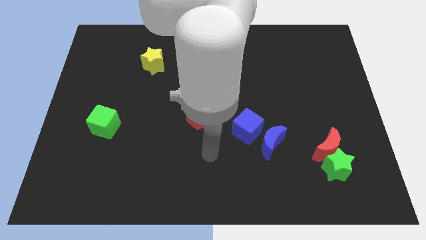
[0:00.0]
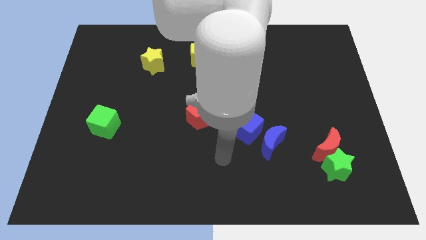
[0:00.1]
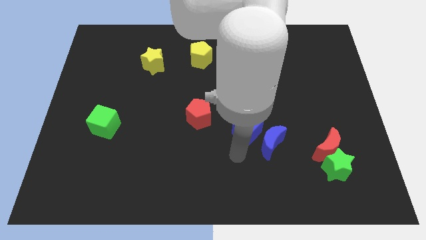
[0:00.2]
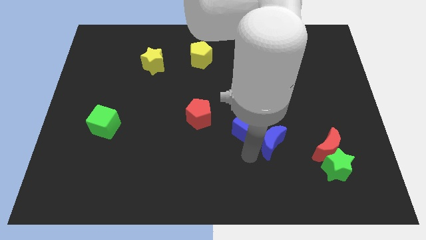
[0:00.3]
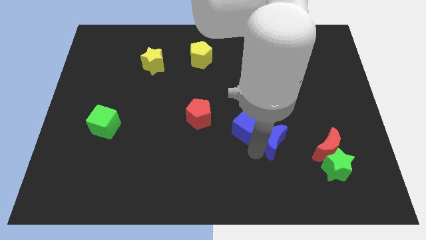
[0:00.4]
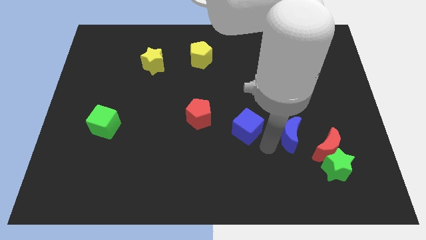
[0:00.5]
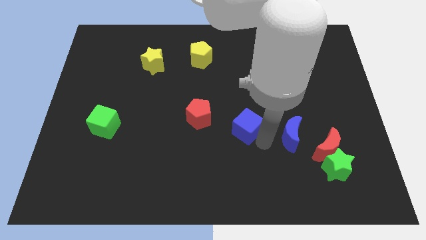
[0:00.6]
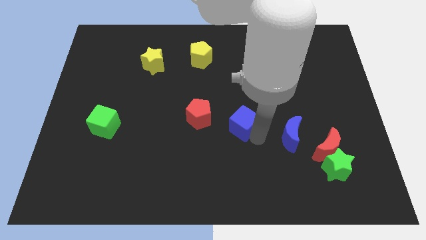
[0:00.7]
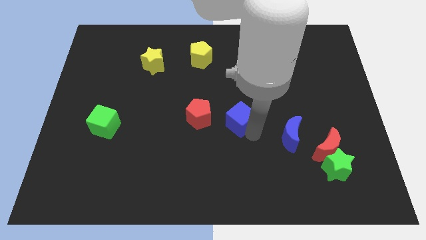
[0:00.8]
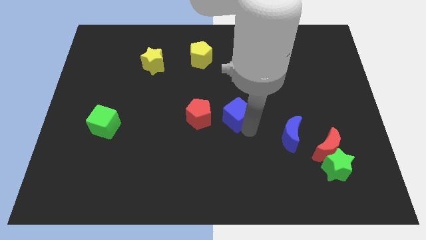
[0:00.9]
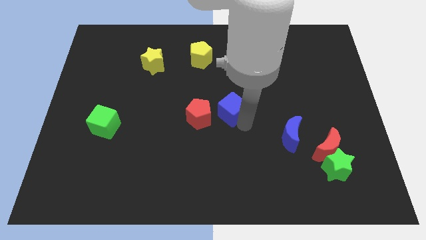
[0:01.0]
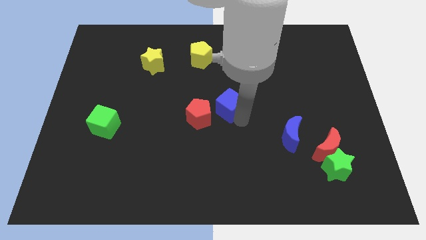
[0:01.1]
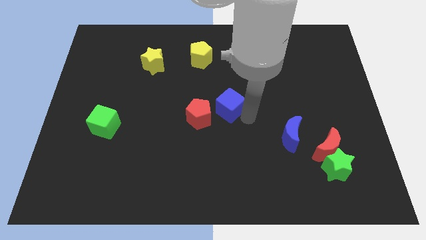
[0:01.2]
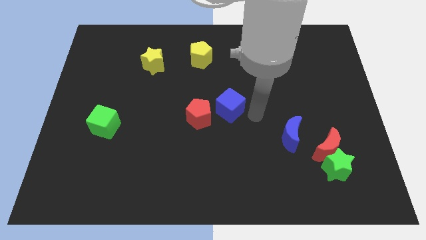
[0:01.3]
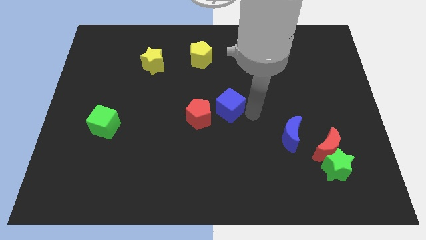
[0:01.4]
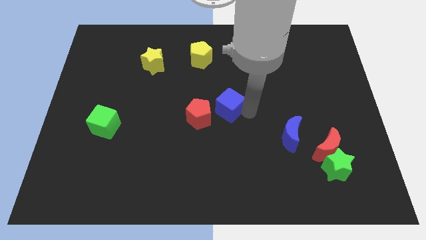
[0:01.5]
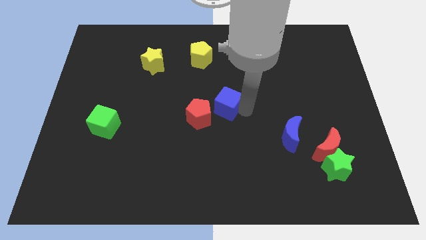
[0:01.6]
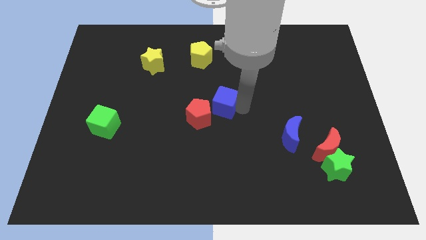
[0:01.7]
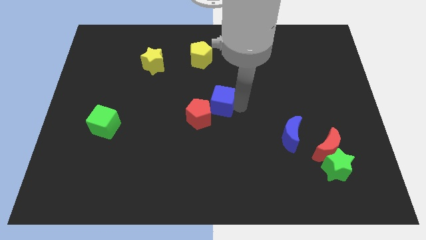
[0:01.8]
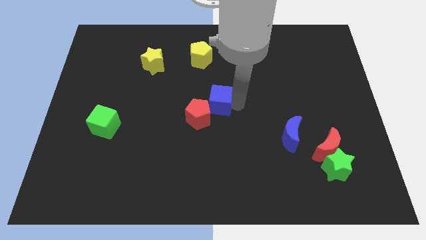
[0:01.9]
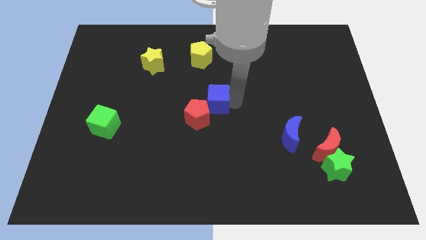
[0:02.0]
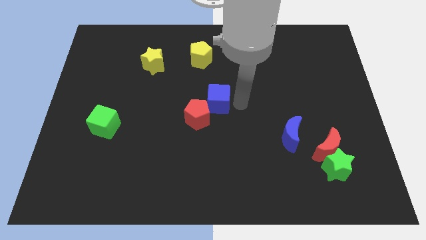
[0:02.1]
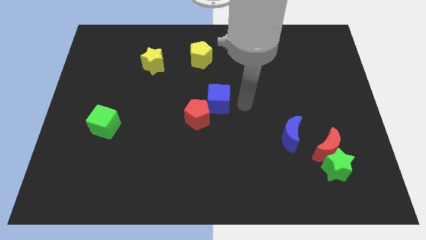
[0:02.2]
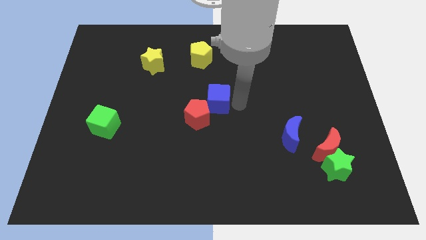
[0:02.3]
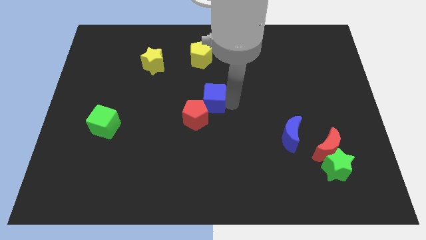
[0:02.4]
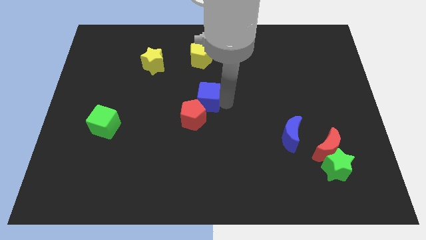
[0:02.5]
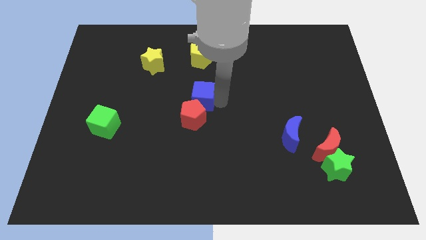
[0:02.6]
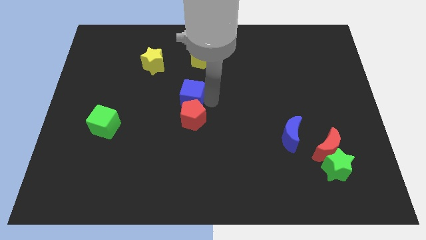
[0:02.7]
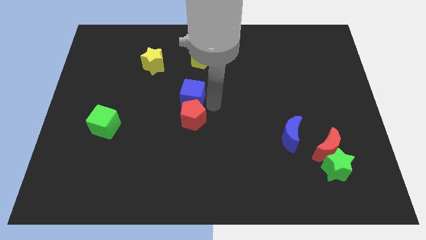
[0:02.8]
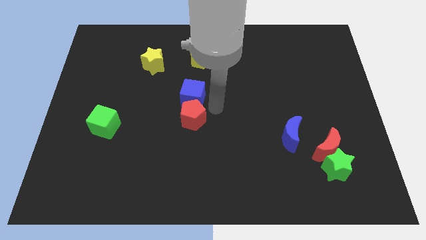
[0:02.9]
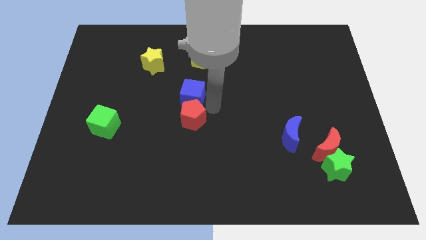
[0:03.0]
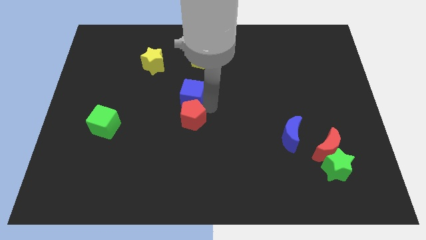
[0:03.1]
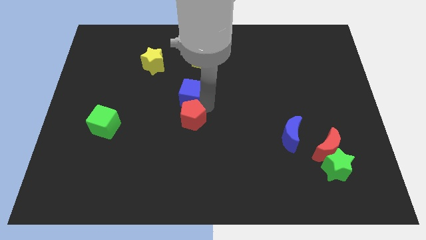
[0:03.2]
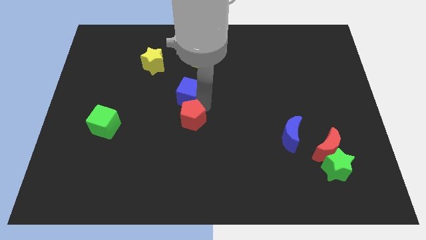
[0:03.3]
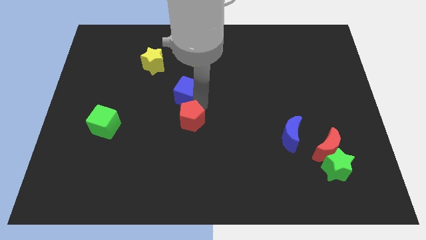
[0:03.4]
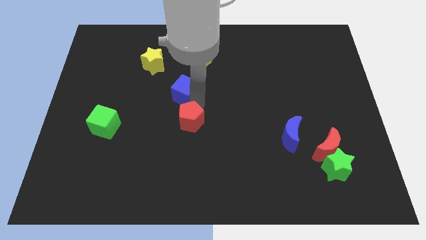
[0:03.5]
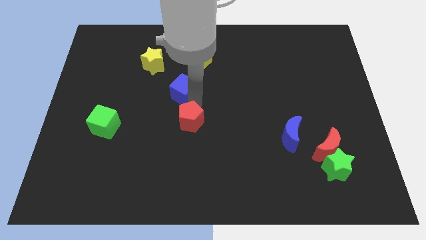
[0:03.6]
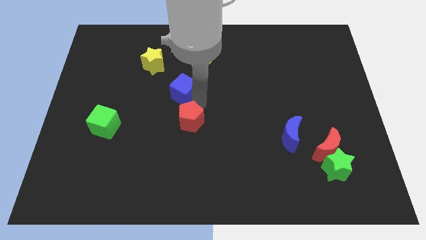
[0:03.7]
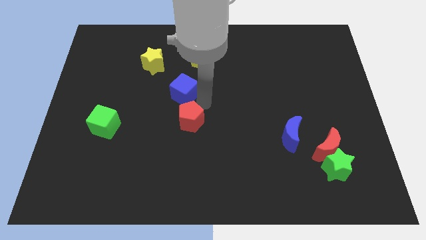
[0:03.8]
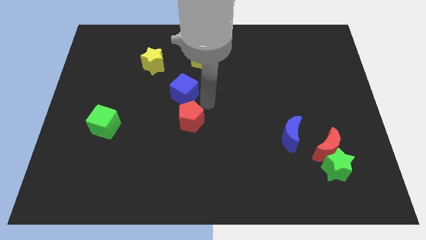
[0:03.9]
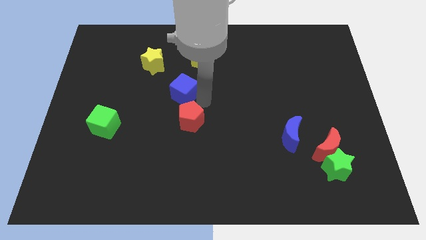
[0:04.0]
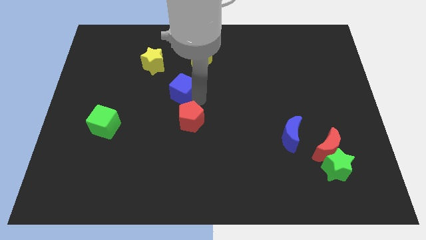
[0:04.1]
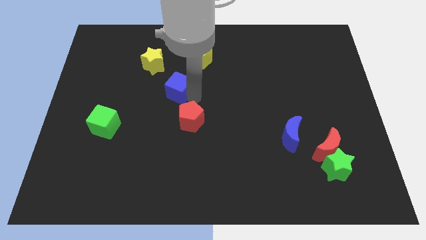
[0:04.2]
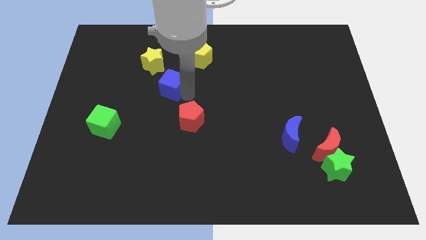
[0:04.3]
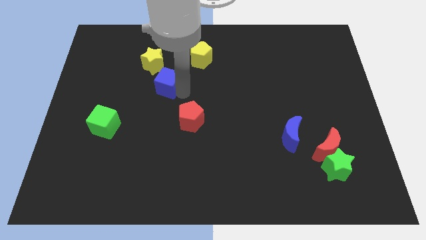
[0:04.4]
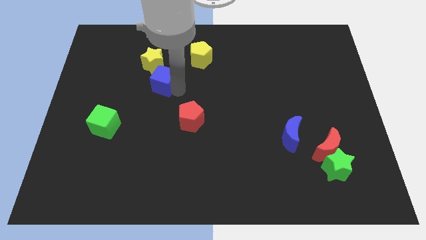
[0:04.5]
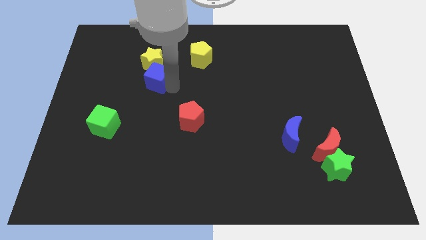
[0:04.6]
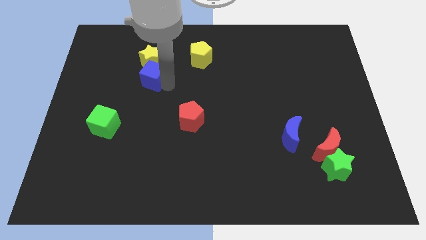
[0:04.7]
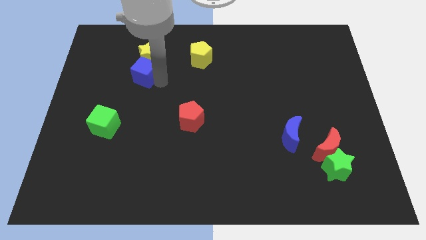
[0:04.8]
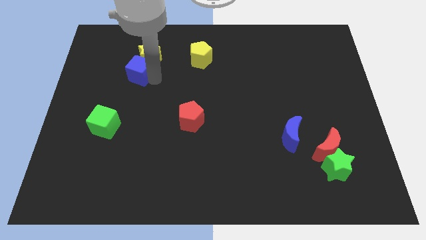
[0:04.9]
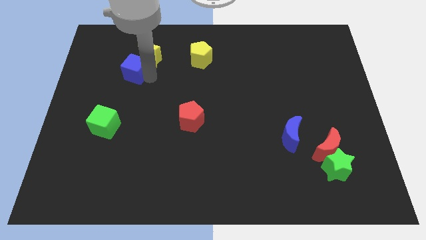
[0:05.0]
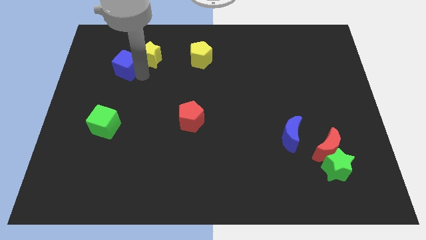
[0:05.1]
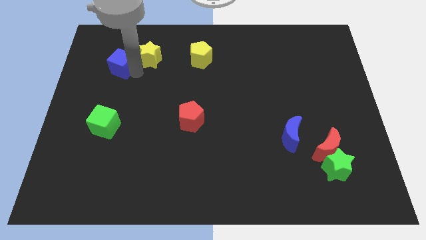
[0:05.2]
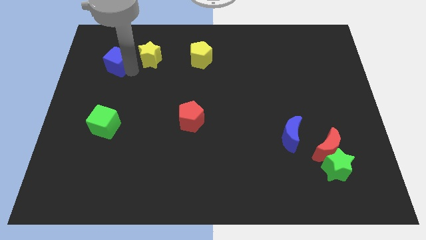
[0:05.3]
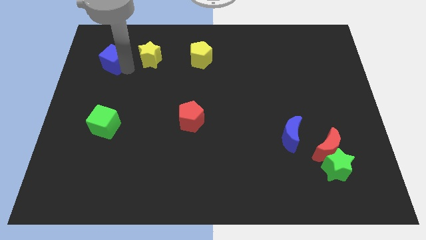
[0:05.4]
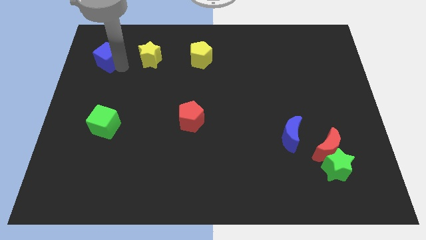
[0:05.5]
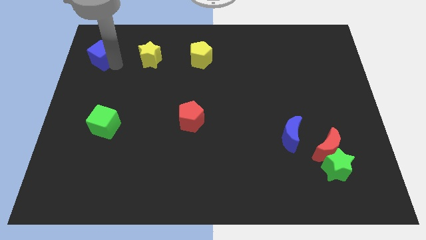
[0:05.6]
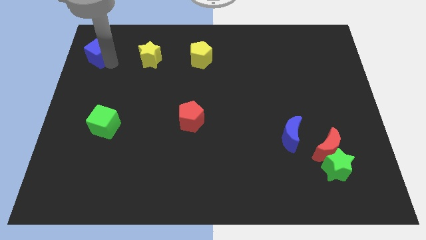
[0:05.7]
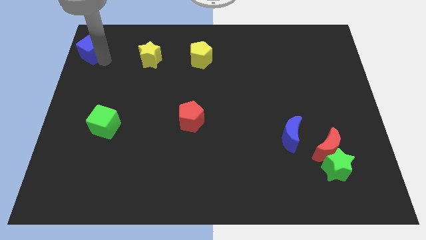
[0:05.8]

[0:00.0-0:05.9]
slide the blue cube to the top left

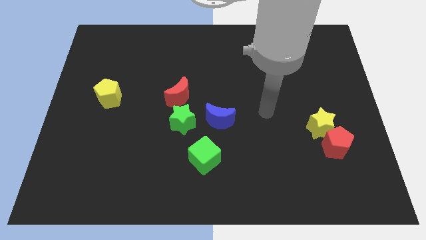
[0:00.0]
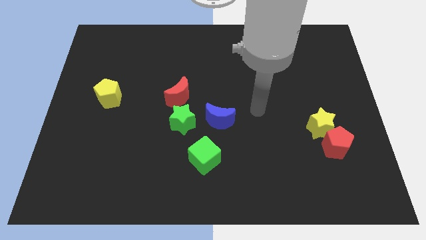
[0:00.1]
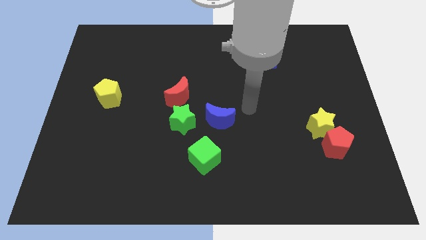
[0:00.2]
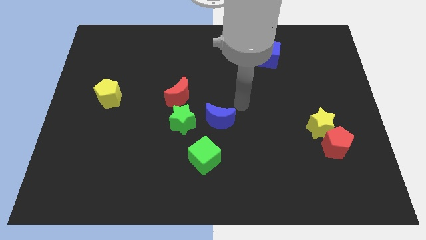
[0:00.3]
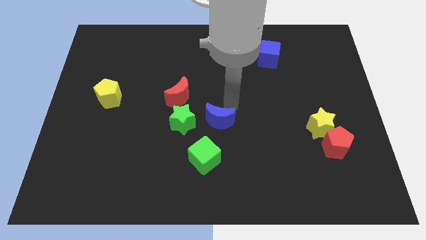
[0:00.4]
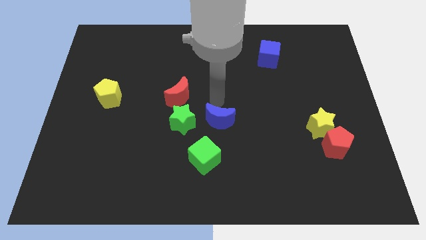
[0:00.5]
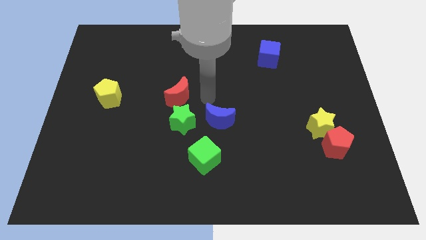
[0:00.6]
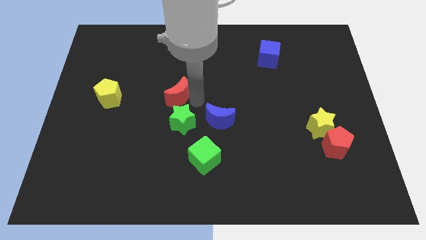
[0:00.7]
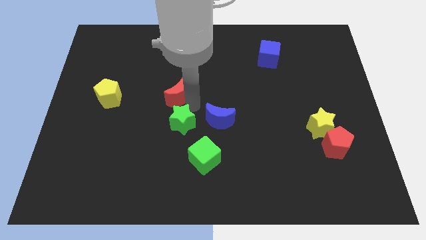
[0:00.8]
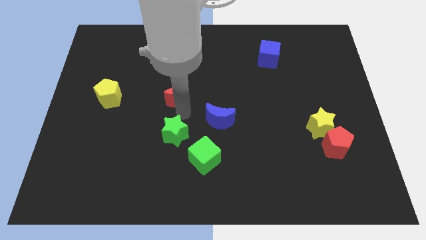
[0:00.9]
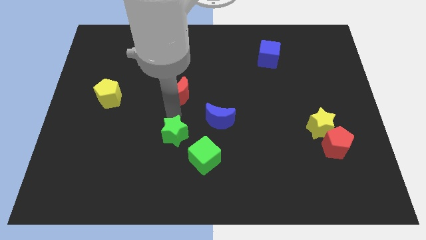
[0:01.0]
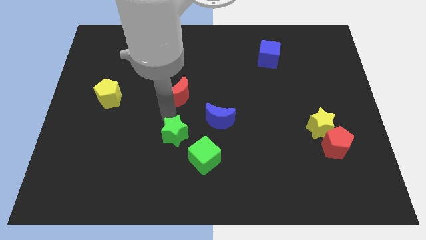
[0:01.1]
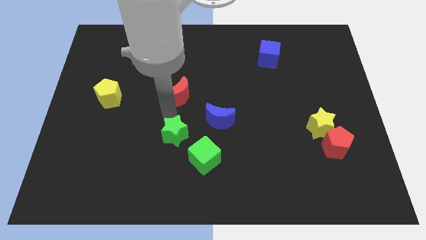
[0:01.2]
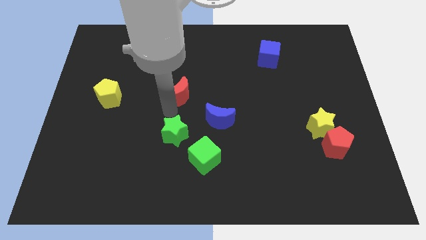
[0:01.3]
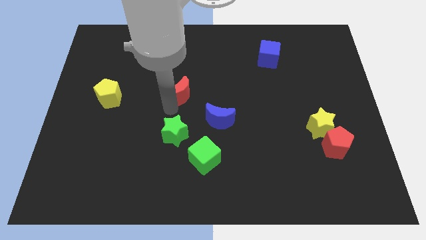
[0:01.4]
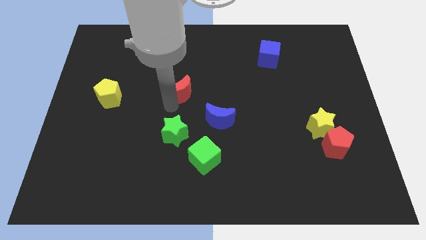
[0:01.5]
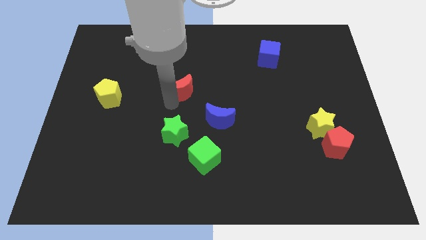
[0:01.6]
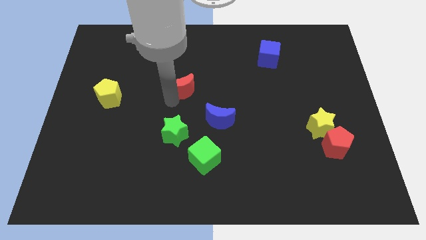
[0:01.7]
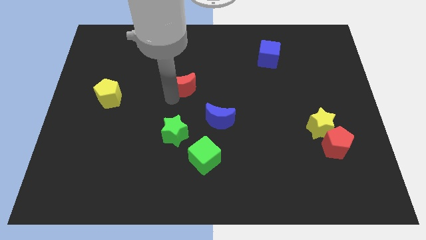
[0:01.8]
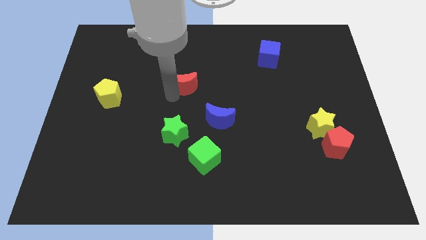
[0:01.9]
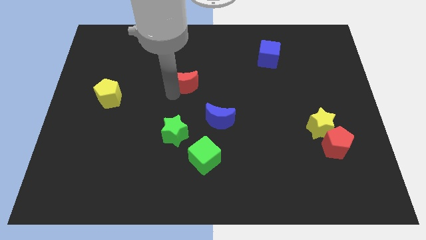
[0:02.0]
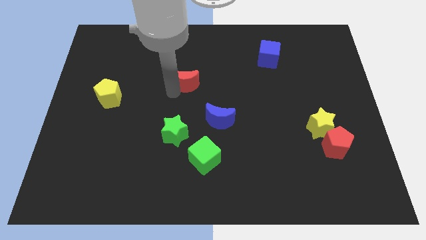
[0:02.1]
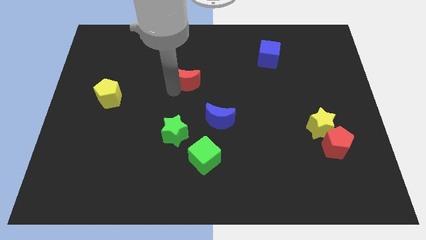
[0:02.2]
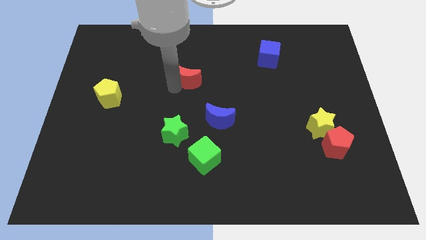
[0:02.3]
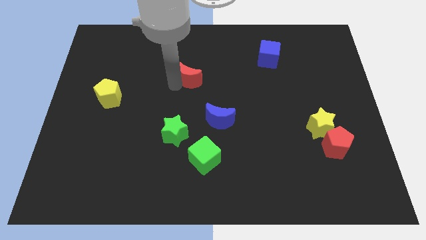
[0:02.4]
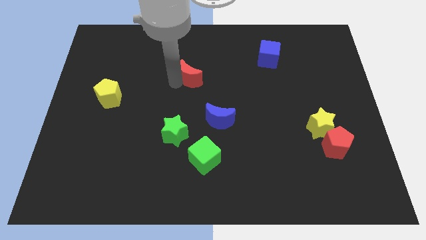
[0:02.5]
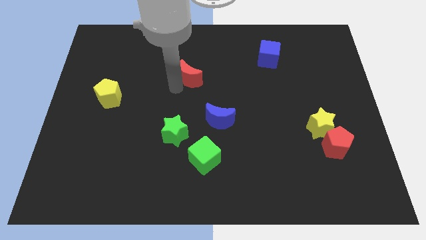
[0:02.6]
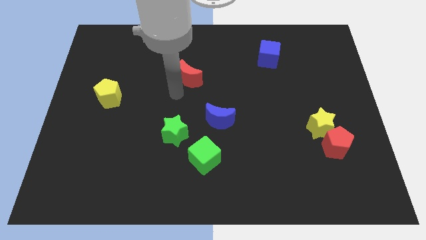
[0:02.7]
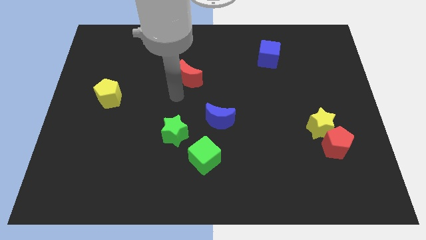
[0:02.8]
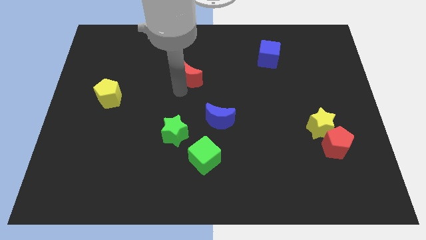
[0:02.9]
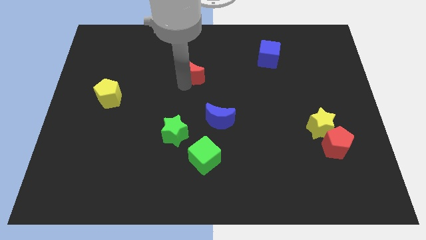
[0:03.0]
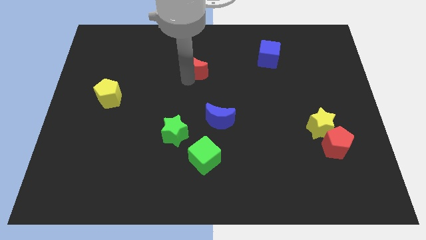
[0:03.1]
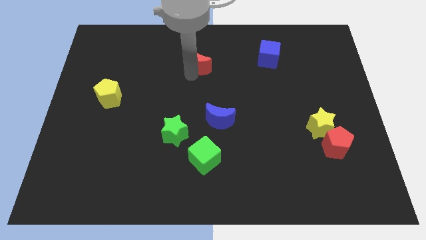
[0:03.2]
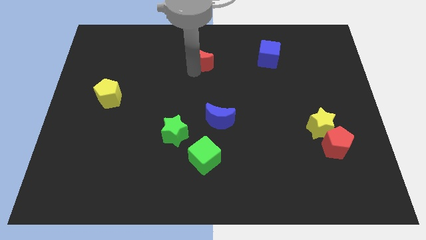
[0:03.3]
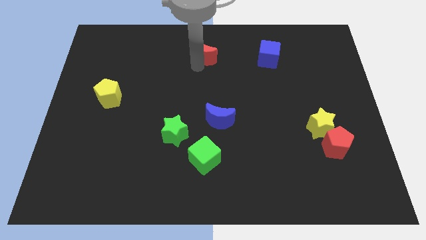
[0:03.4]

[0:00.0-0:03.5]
slide the red moon to the towards your base
